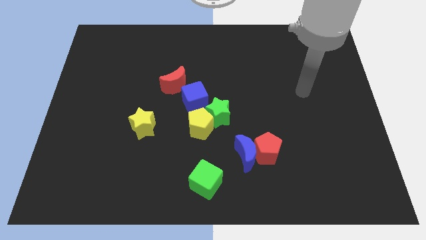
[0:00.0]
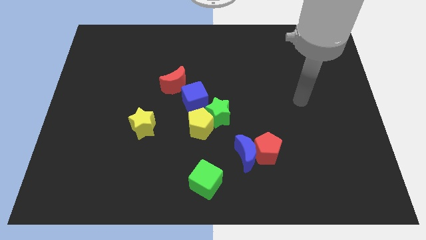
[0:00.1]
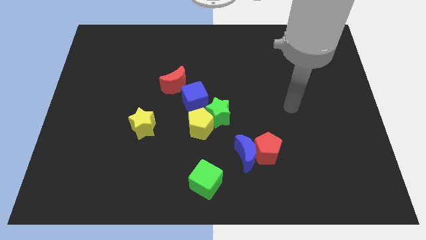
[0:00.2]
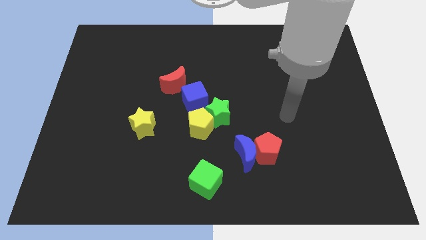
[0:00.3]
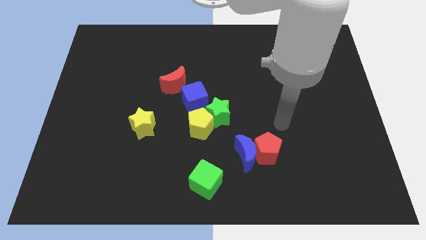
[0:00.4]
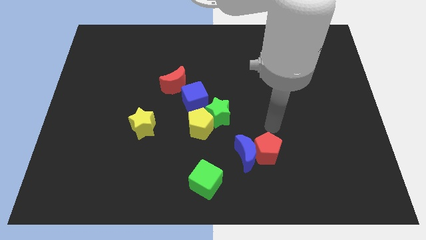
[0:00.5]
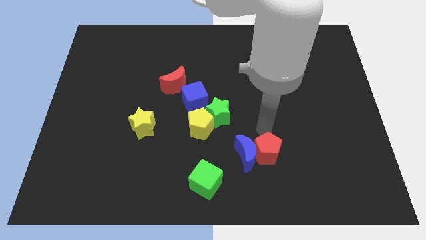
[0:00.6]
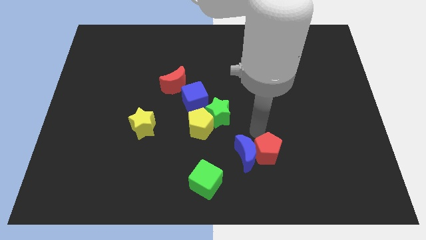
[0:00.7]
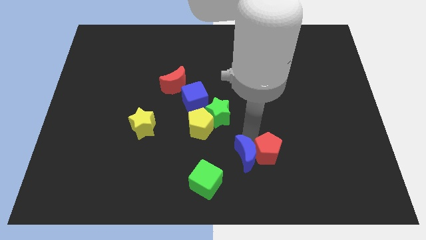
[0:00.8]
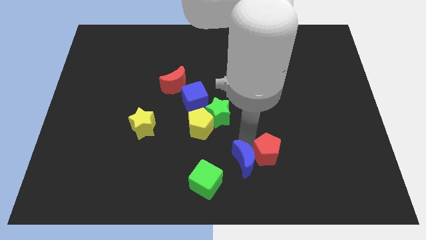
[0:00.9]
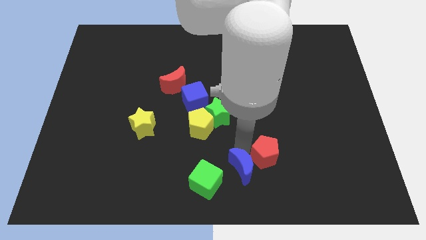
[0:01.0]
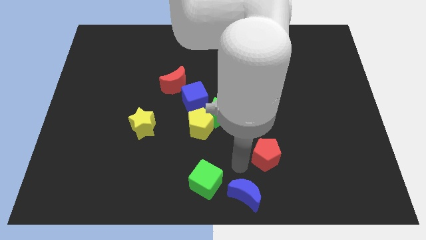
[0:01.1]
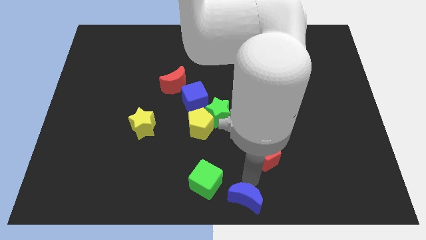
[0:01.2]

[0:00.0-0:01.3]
pull the red pentagon apart from the blue moon

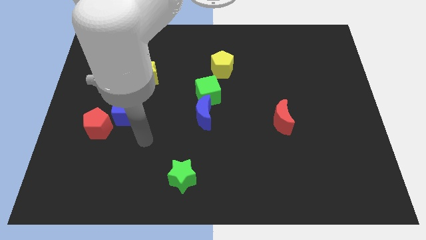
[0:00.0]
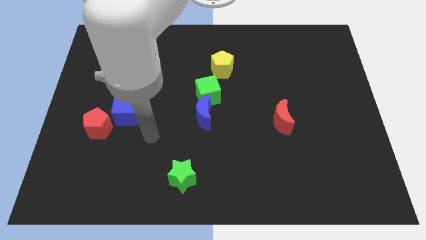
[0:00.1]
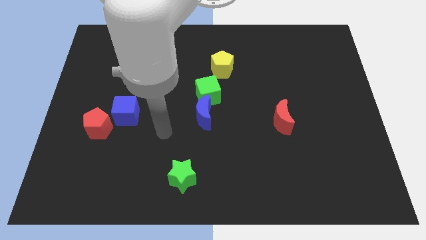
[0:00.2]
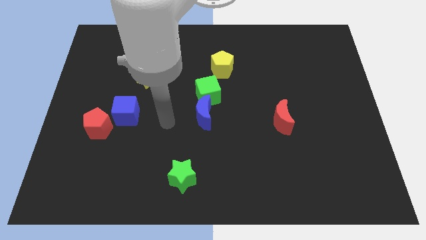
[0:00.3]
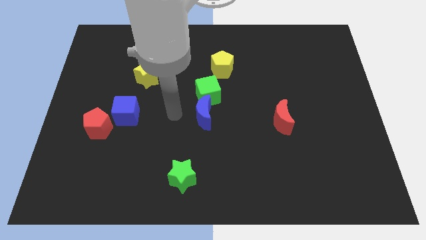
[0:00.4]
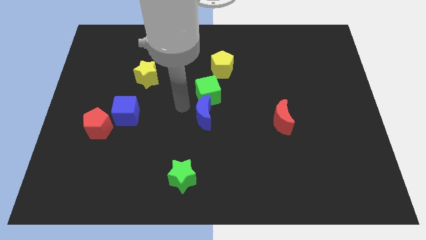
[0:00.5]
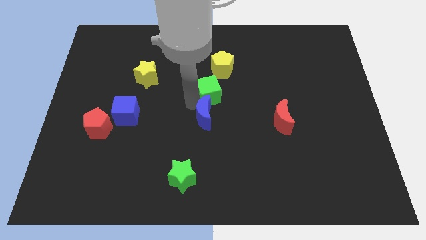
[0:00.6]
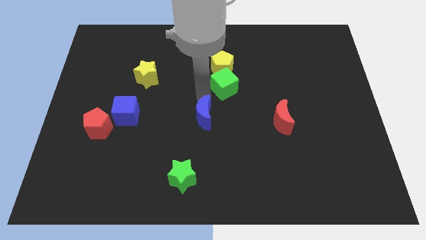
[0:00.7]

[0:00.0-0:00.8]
move the blue moon away from the green cube

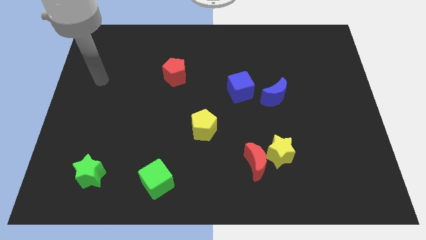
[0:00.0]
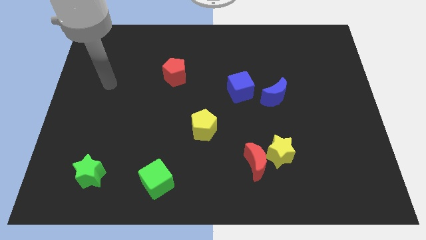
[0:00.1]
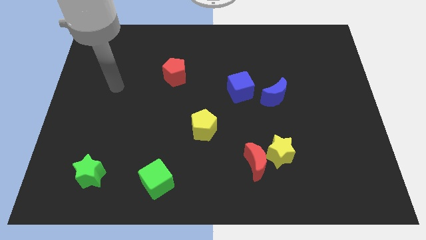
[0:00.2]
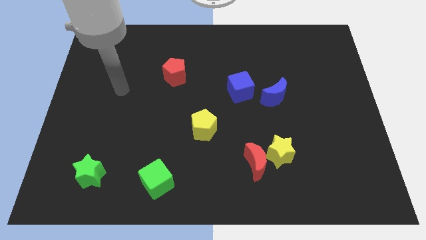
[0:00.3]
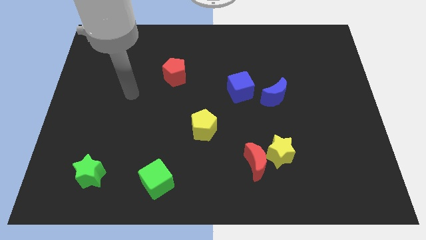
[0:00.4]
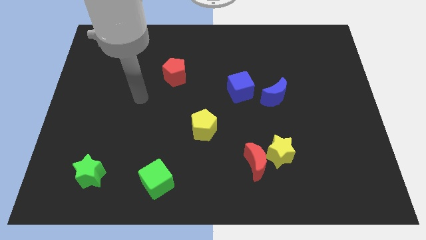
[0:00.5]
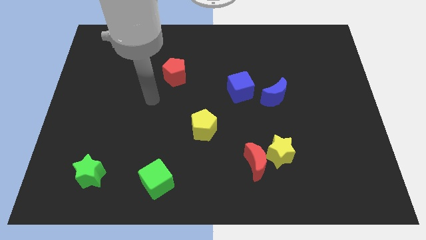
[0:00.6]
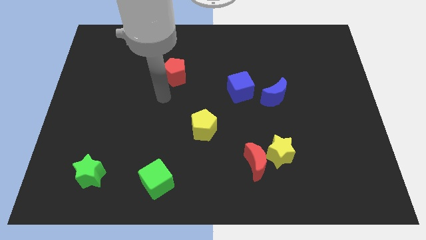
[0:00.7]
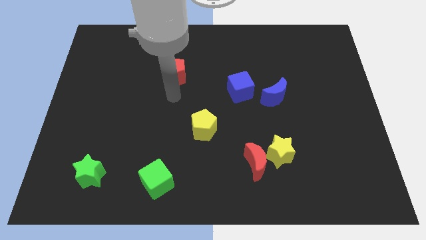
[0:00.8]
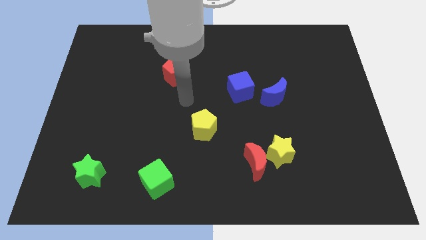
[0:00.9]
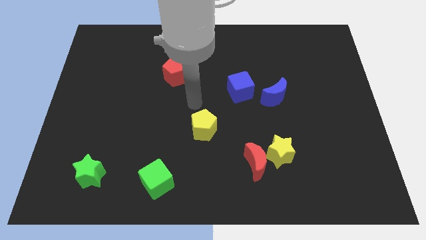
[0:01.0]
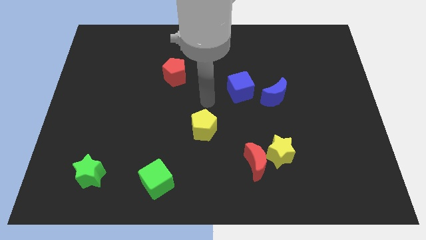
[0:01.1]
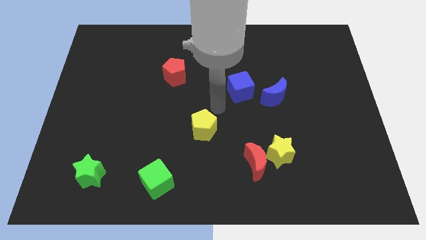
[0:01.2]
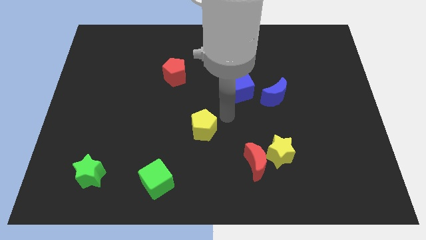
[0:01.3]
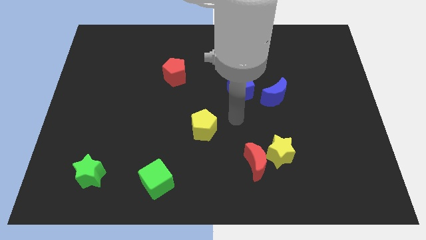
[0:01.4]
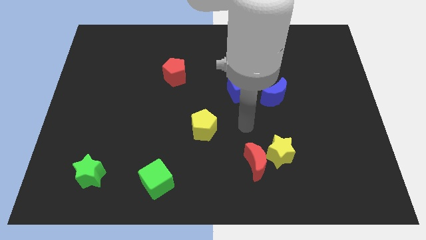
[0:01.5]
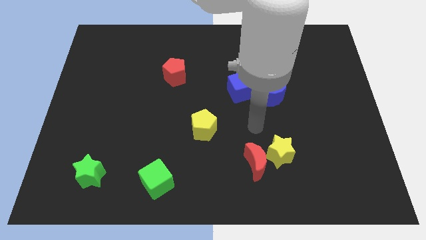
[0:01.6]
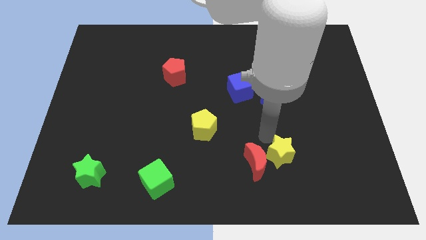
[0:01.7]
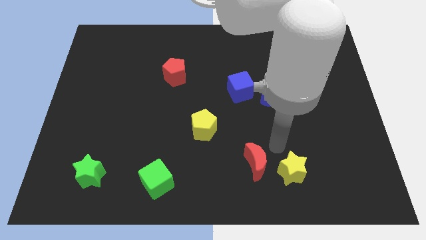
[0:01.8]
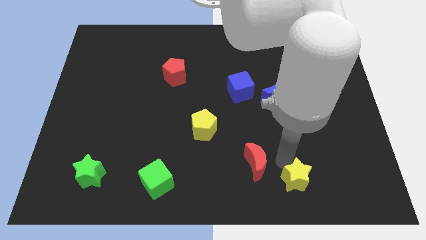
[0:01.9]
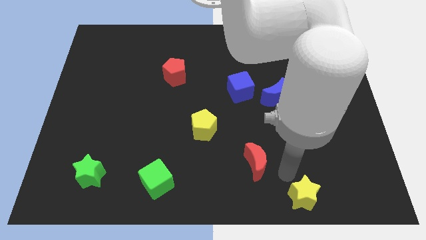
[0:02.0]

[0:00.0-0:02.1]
separate the red moon from the yellow star

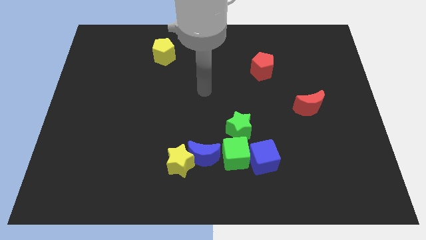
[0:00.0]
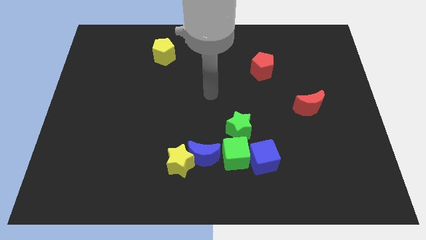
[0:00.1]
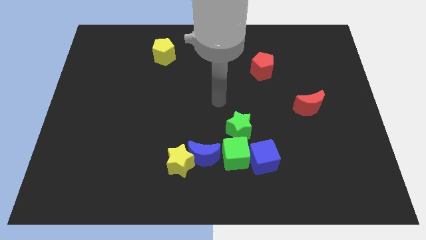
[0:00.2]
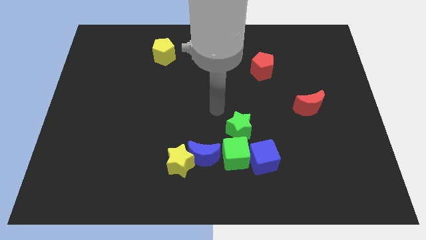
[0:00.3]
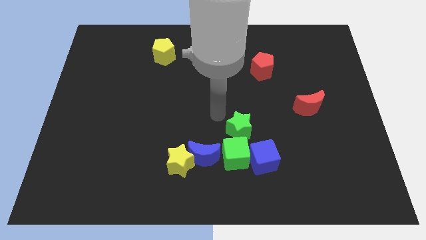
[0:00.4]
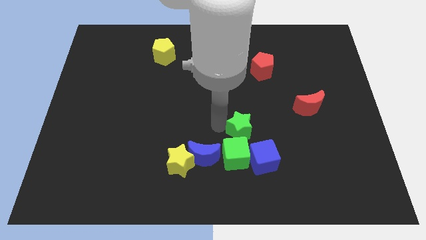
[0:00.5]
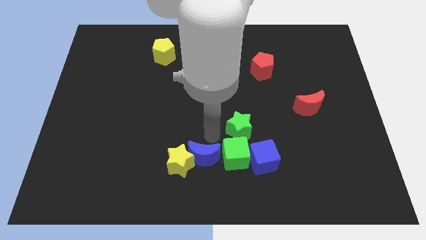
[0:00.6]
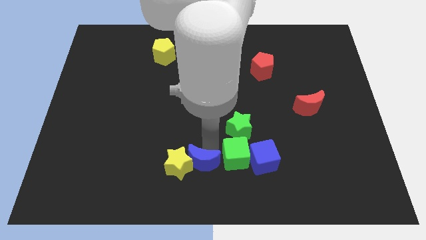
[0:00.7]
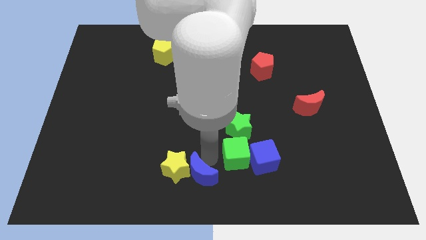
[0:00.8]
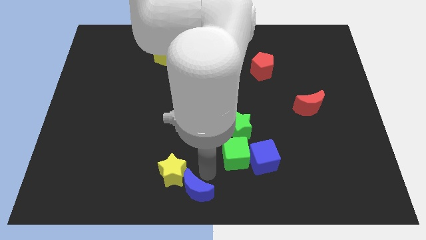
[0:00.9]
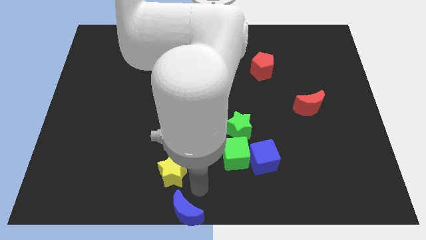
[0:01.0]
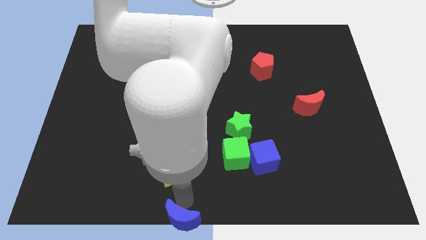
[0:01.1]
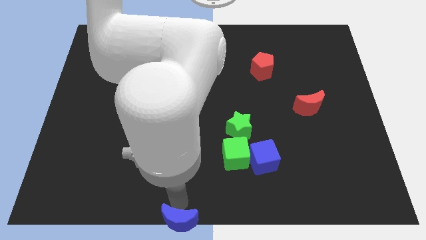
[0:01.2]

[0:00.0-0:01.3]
pull the yellow star apart from the blue moon

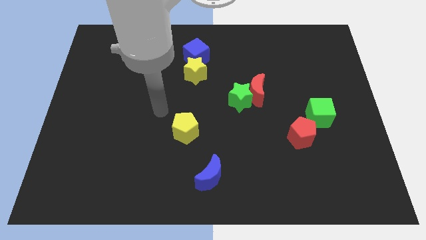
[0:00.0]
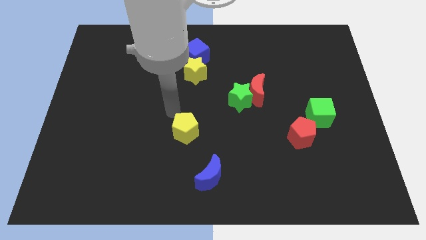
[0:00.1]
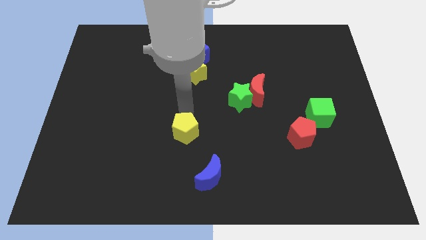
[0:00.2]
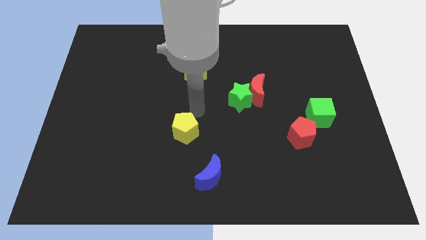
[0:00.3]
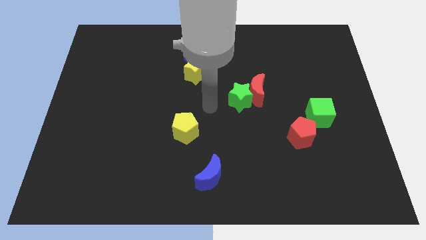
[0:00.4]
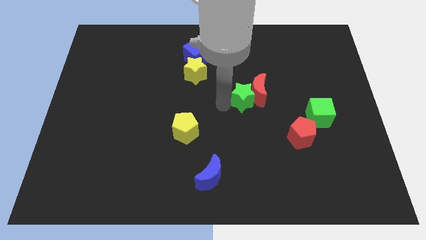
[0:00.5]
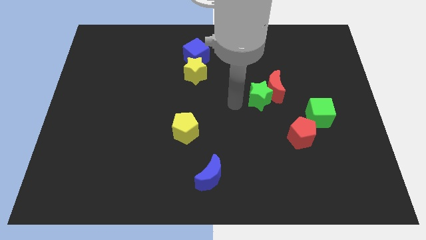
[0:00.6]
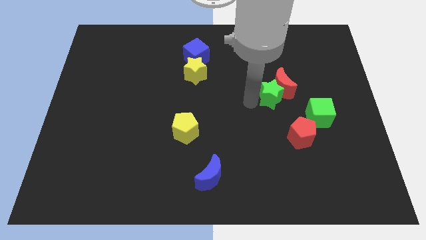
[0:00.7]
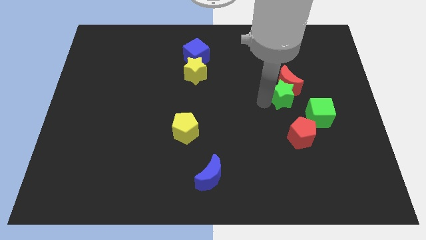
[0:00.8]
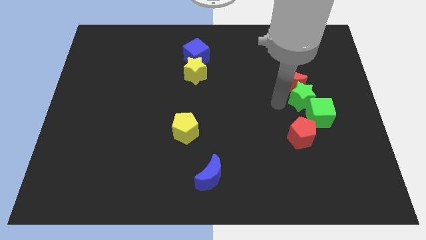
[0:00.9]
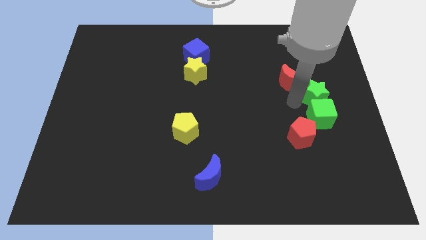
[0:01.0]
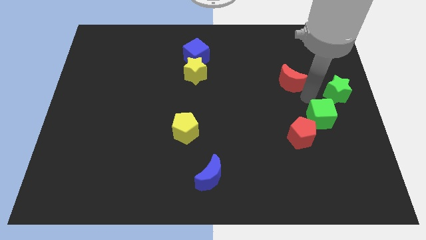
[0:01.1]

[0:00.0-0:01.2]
move the red moon away from the green star

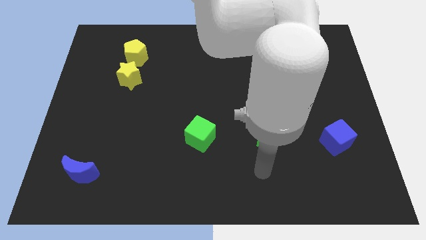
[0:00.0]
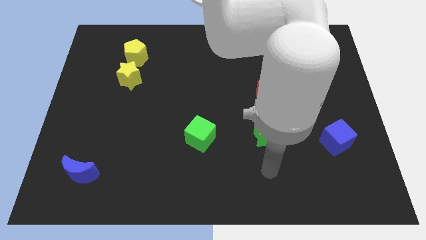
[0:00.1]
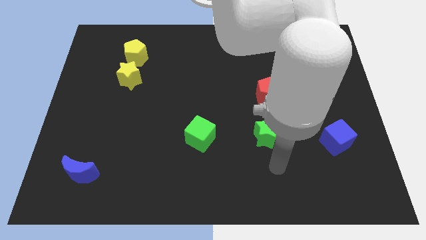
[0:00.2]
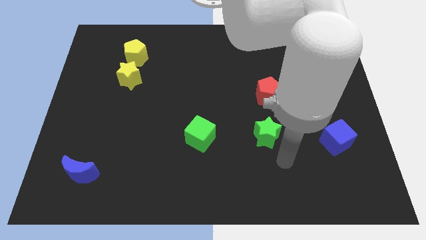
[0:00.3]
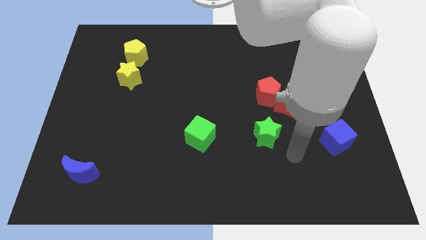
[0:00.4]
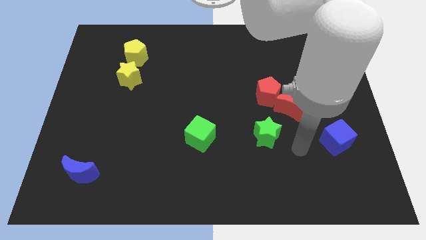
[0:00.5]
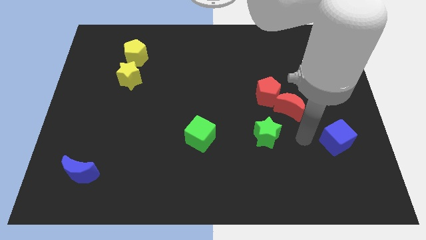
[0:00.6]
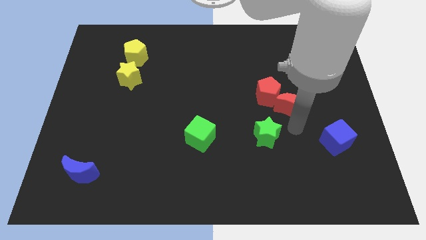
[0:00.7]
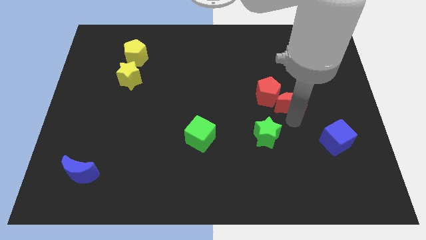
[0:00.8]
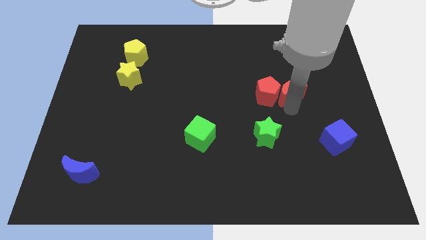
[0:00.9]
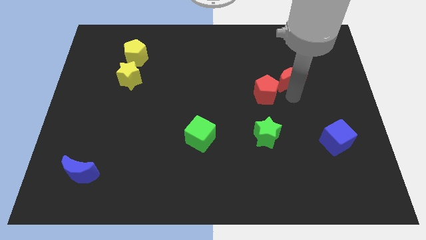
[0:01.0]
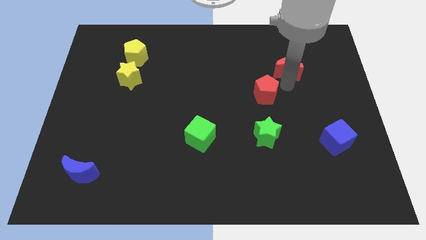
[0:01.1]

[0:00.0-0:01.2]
pull the red pentagon apart from the red moon

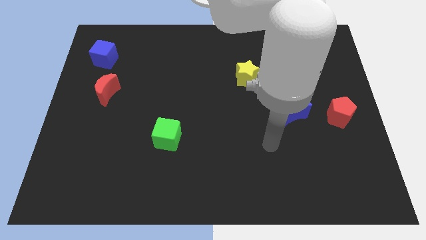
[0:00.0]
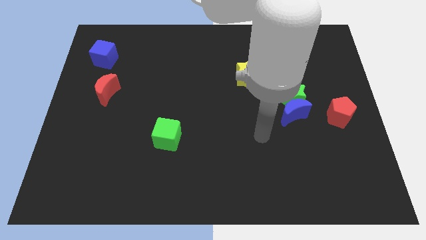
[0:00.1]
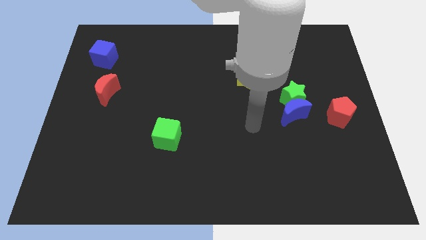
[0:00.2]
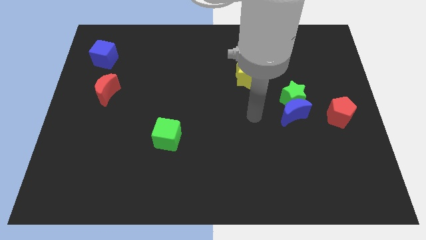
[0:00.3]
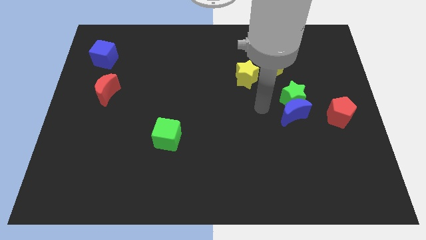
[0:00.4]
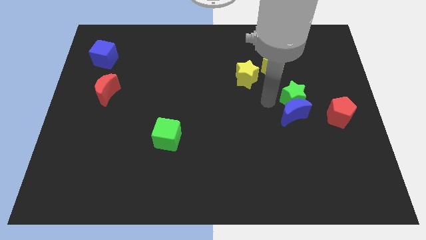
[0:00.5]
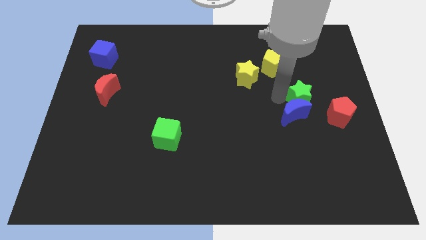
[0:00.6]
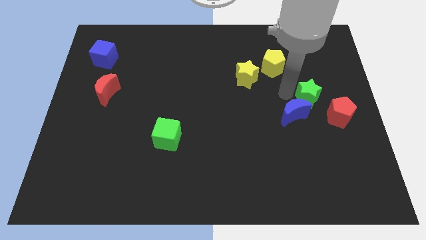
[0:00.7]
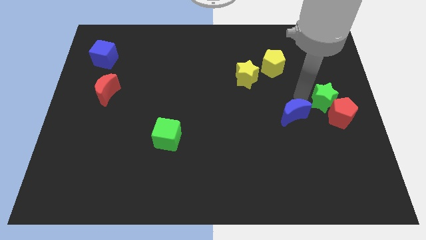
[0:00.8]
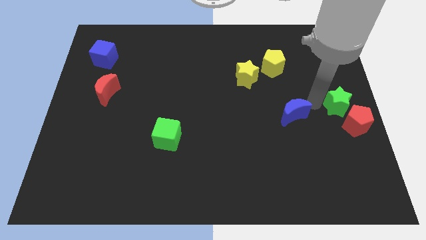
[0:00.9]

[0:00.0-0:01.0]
move the blue moon away from the green star

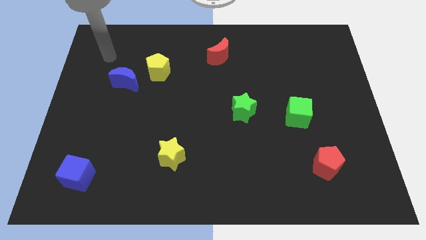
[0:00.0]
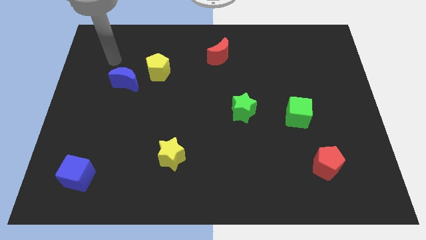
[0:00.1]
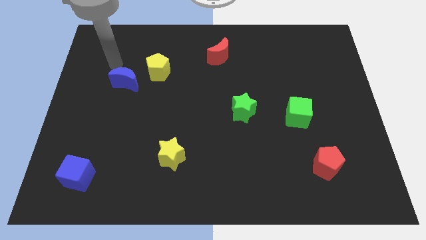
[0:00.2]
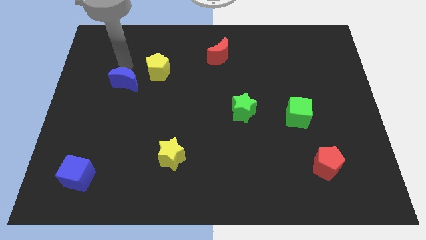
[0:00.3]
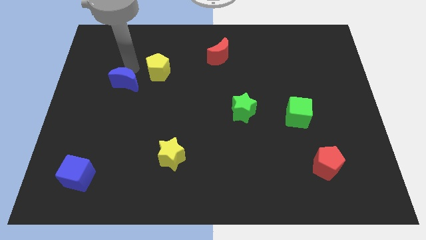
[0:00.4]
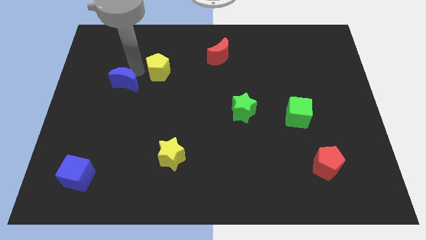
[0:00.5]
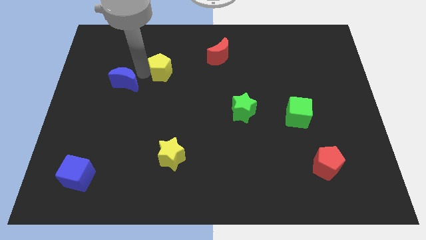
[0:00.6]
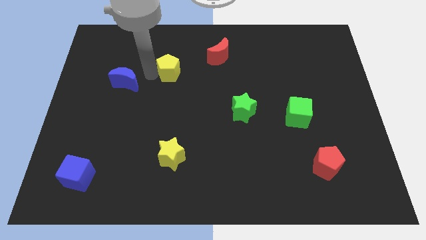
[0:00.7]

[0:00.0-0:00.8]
separate the blue moon from the yellow pentagon
